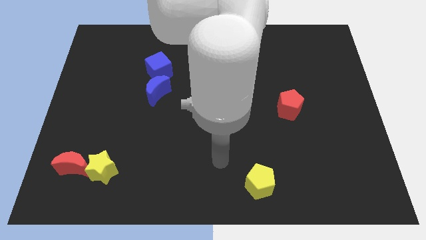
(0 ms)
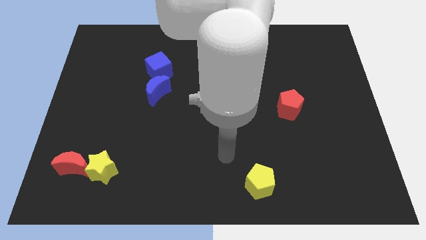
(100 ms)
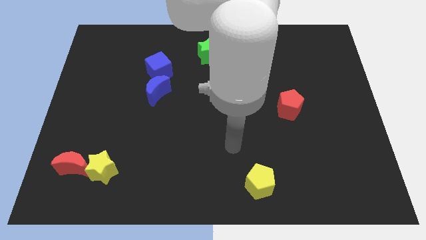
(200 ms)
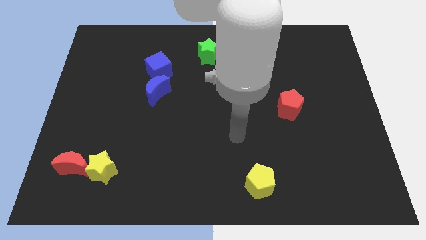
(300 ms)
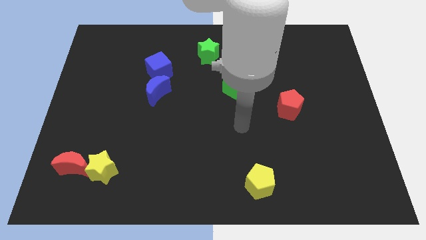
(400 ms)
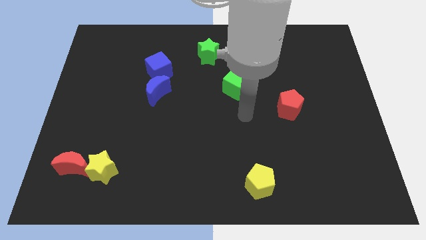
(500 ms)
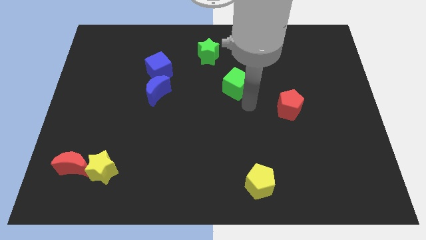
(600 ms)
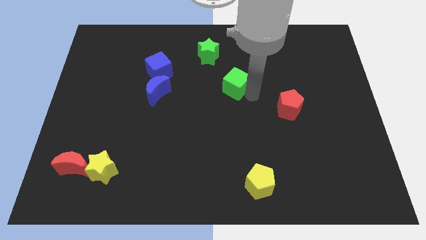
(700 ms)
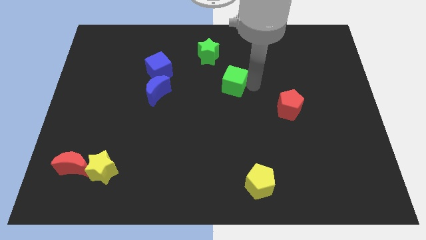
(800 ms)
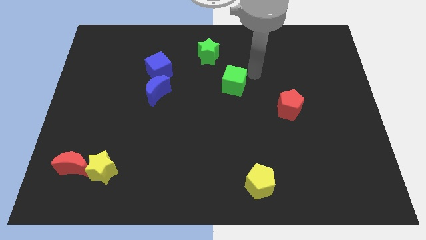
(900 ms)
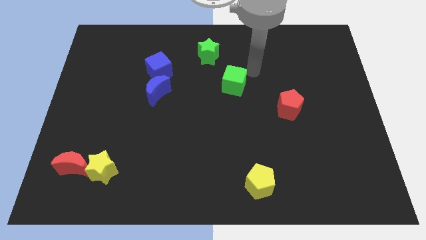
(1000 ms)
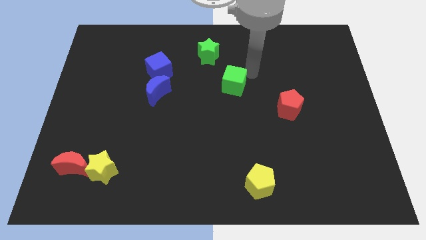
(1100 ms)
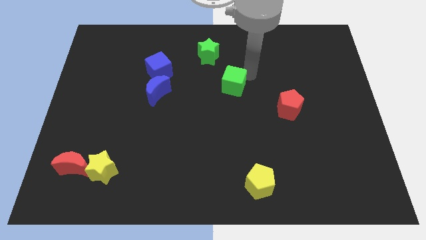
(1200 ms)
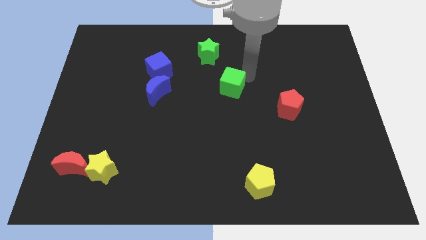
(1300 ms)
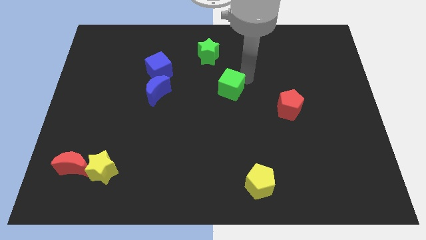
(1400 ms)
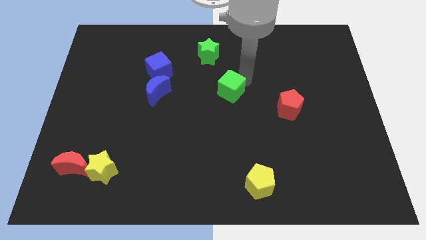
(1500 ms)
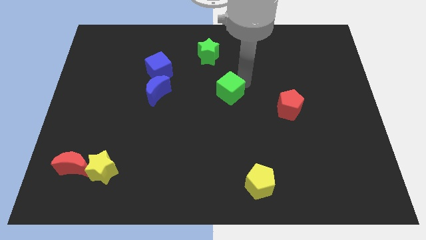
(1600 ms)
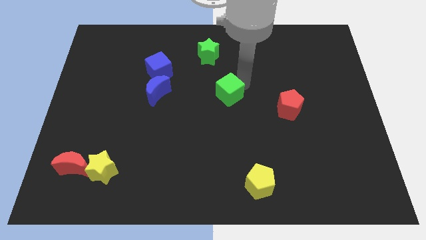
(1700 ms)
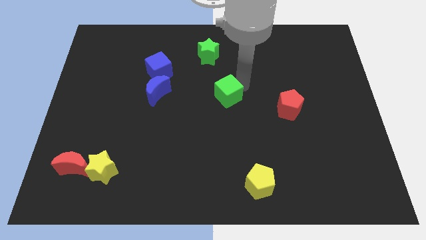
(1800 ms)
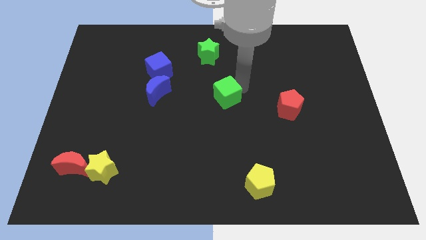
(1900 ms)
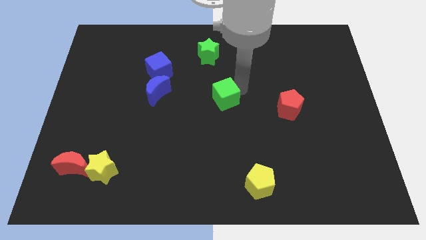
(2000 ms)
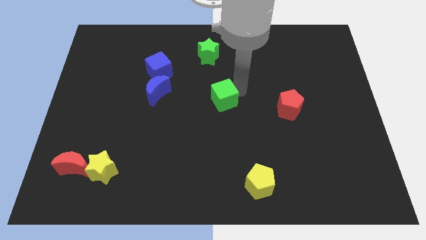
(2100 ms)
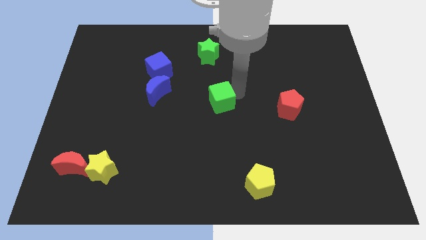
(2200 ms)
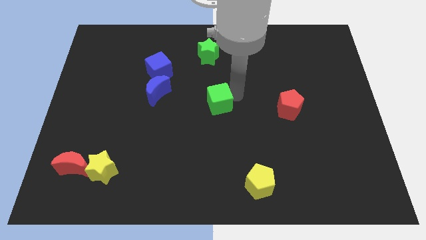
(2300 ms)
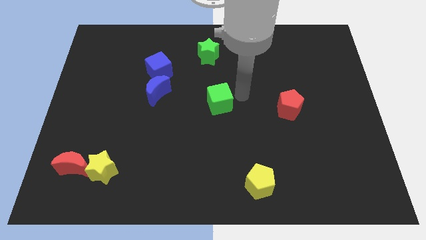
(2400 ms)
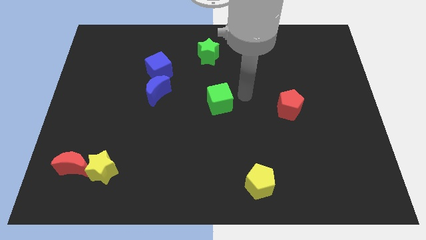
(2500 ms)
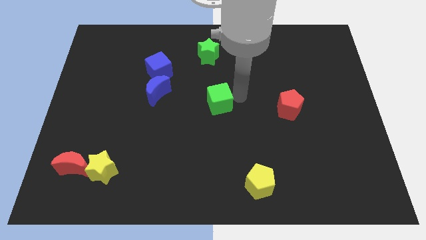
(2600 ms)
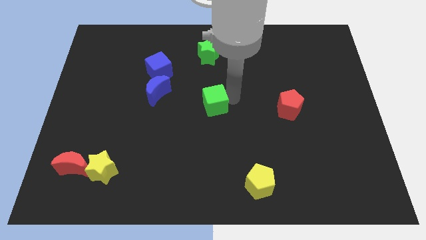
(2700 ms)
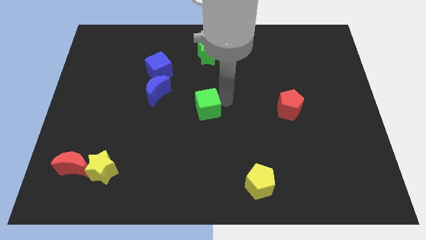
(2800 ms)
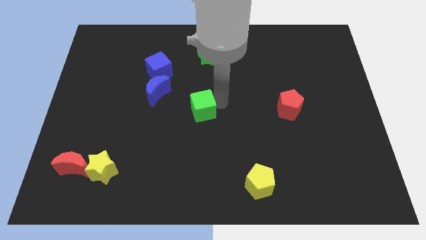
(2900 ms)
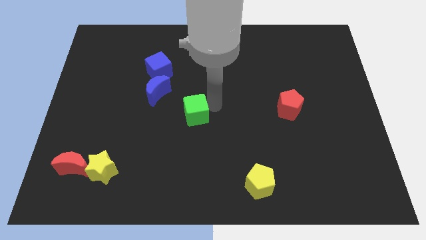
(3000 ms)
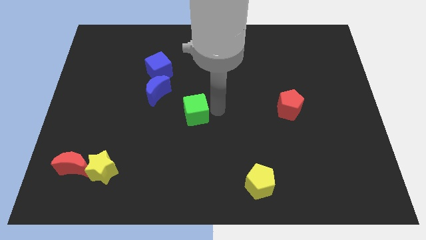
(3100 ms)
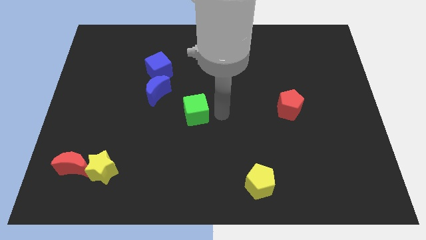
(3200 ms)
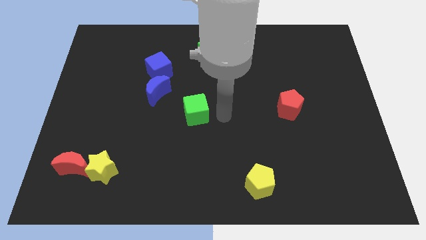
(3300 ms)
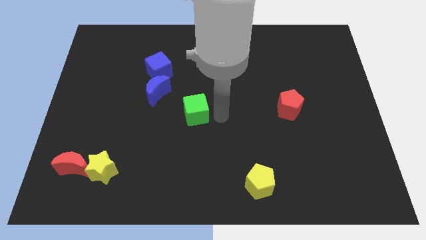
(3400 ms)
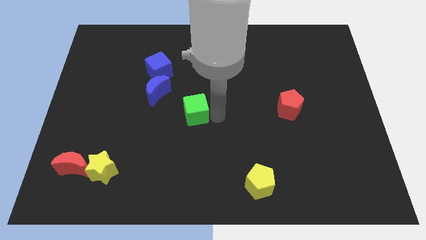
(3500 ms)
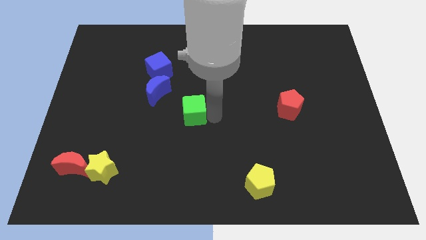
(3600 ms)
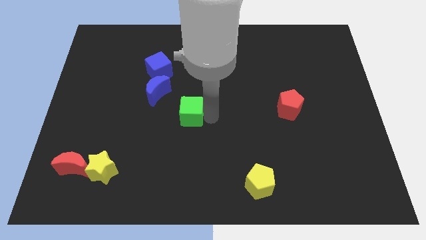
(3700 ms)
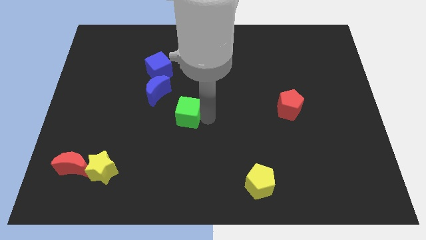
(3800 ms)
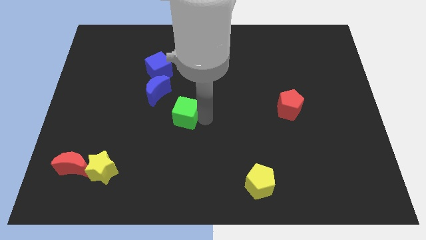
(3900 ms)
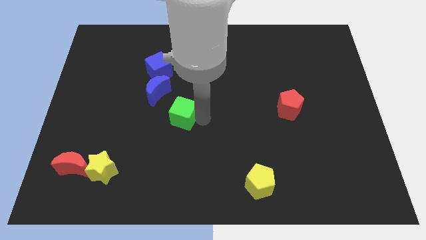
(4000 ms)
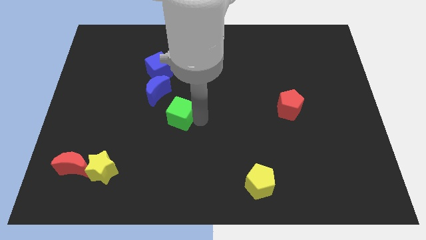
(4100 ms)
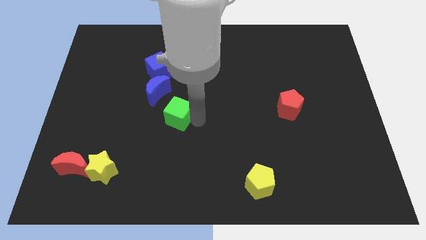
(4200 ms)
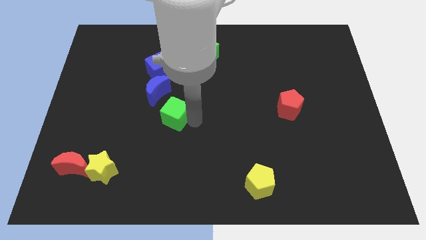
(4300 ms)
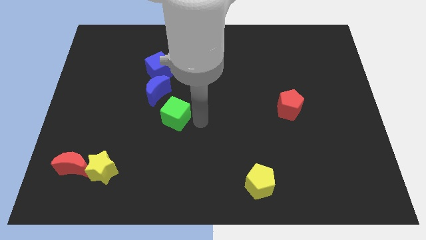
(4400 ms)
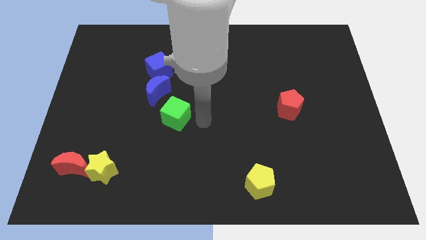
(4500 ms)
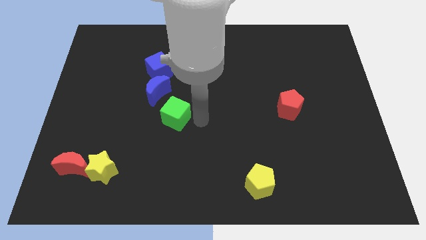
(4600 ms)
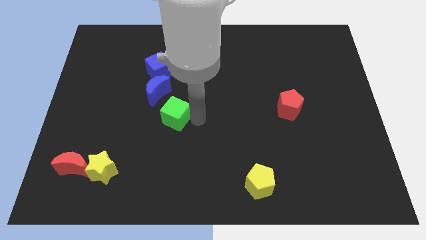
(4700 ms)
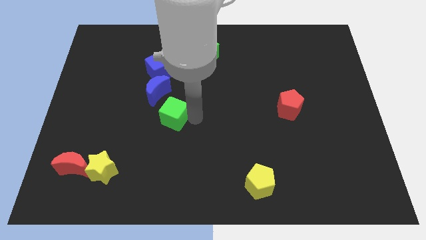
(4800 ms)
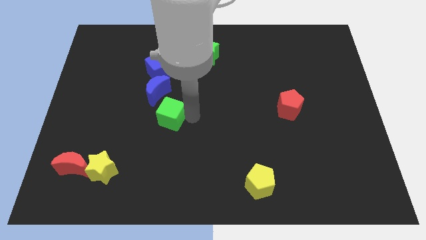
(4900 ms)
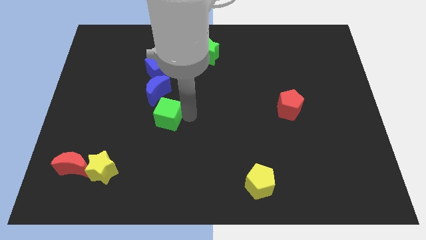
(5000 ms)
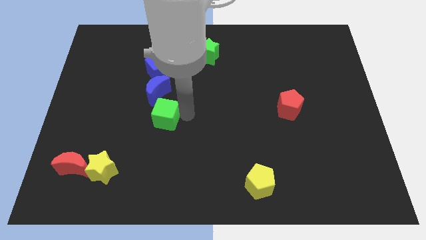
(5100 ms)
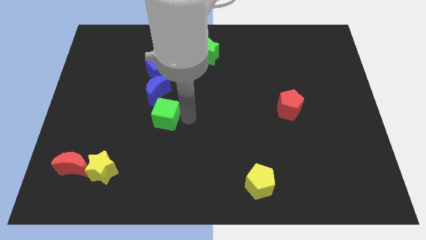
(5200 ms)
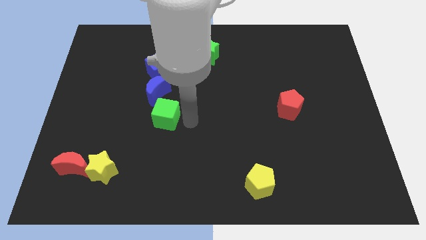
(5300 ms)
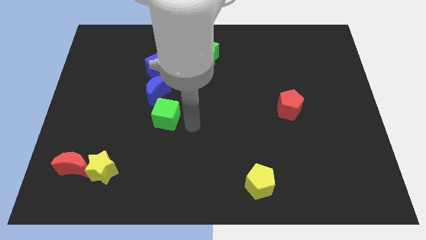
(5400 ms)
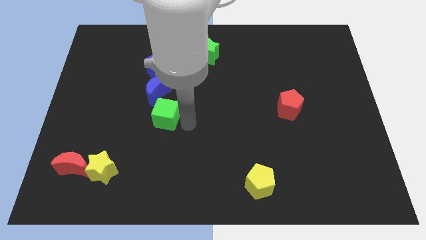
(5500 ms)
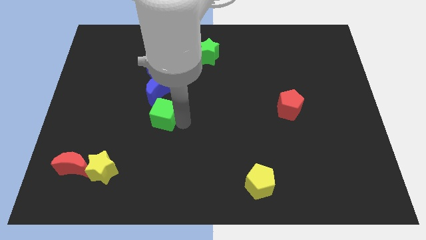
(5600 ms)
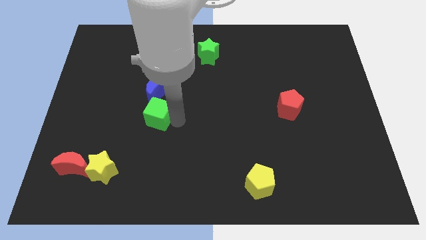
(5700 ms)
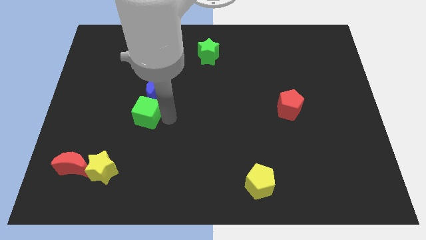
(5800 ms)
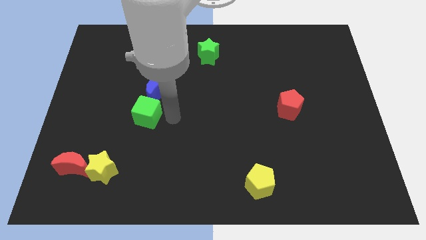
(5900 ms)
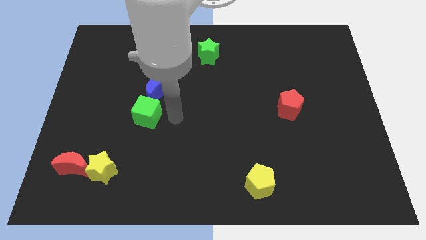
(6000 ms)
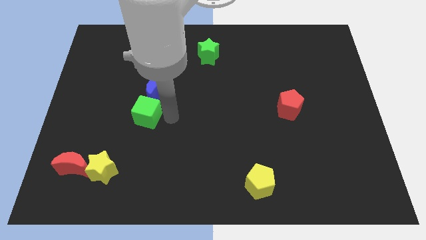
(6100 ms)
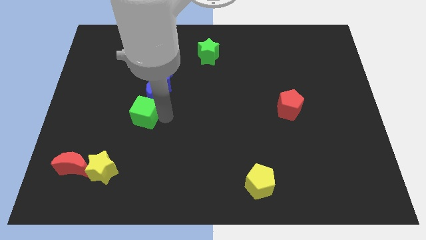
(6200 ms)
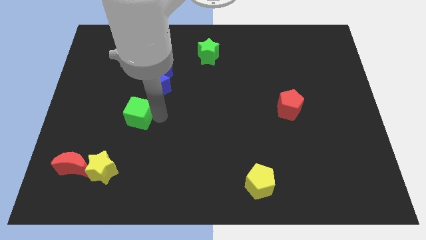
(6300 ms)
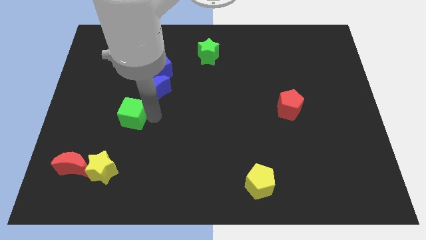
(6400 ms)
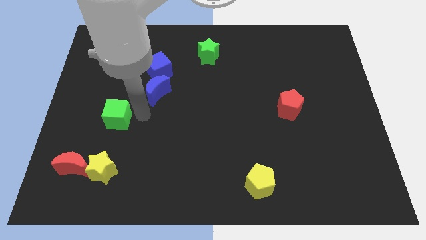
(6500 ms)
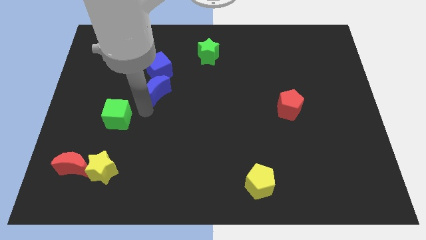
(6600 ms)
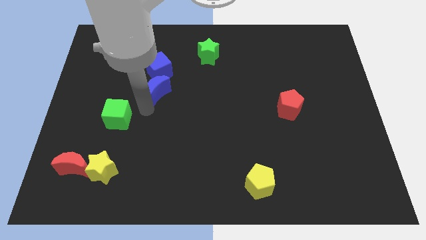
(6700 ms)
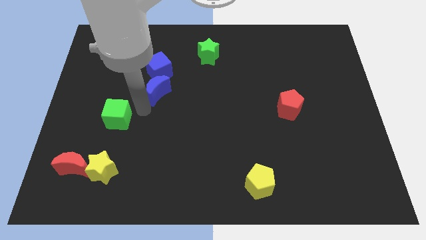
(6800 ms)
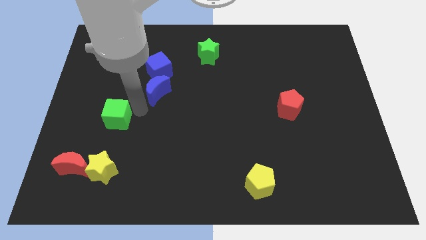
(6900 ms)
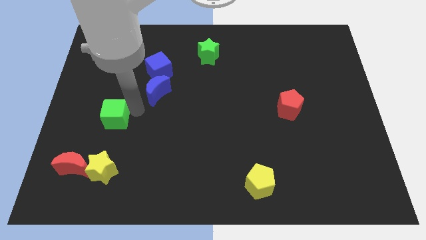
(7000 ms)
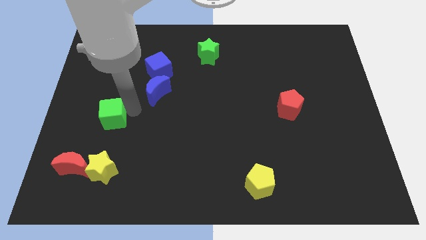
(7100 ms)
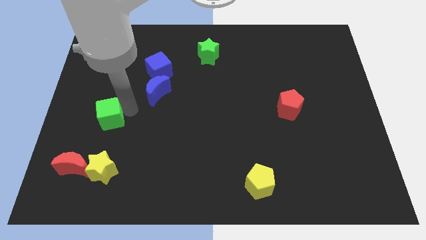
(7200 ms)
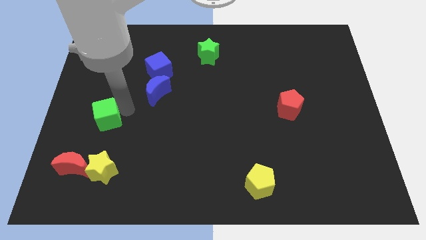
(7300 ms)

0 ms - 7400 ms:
put the green cube to the top side of the red moon

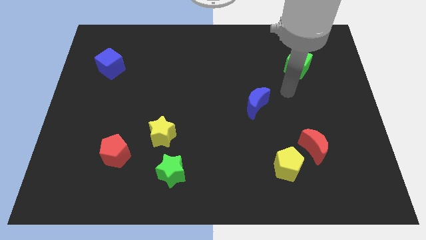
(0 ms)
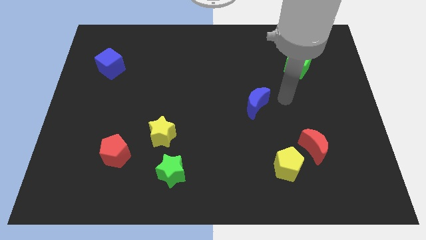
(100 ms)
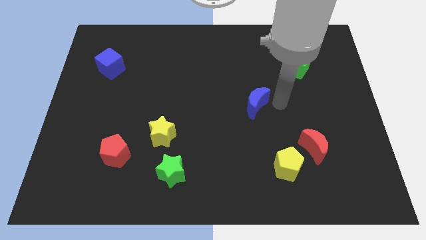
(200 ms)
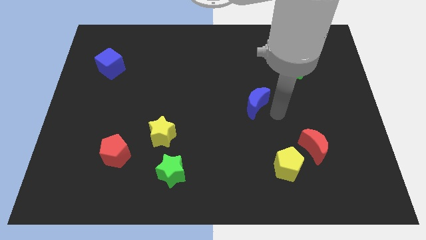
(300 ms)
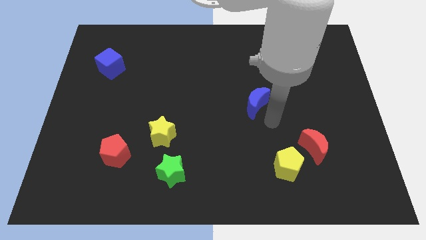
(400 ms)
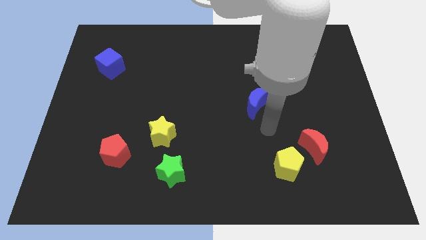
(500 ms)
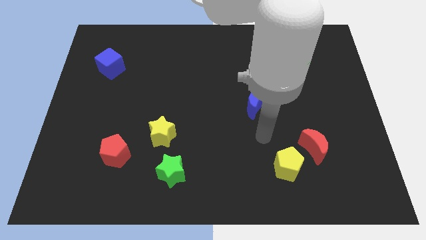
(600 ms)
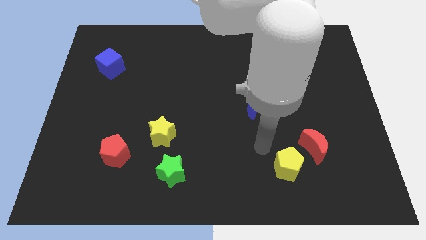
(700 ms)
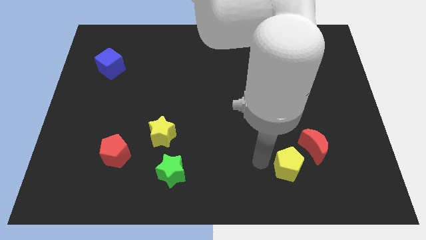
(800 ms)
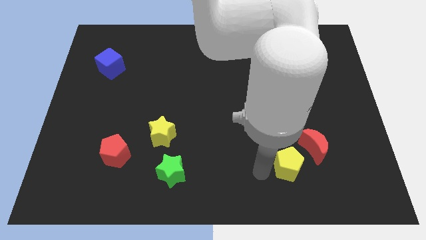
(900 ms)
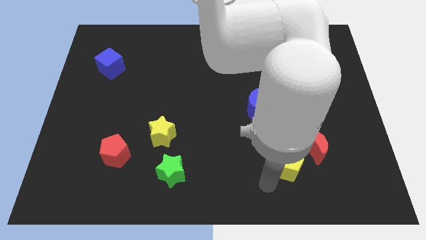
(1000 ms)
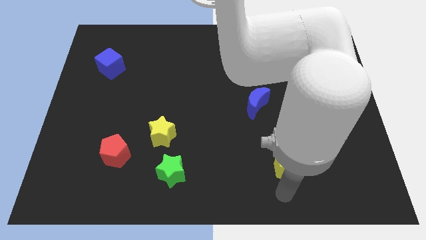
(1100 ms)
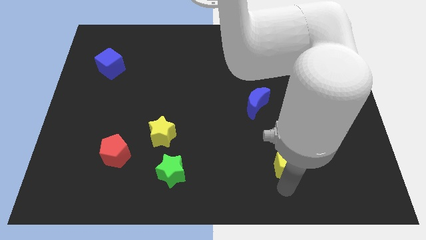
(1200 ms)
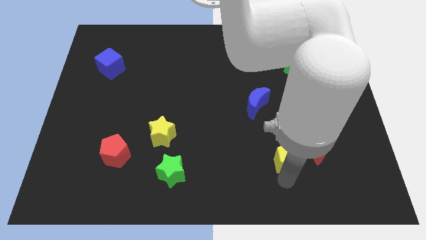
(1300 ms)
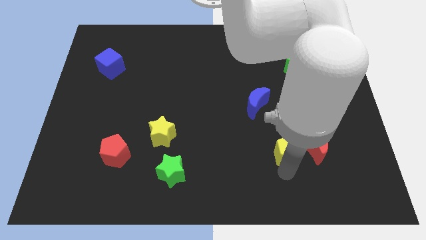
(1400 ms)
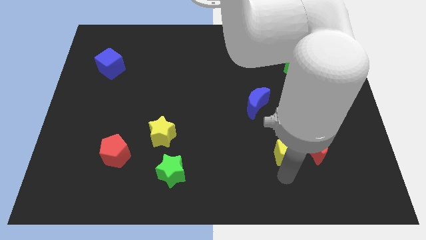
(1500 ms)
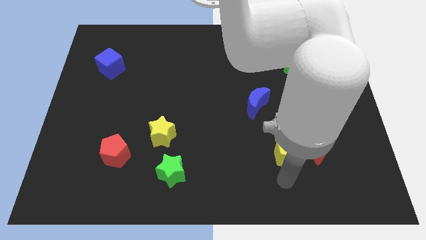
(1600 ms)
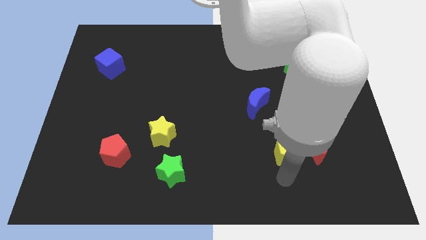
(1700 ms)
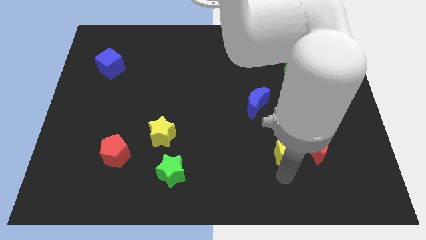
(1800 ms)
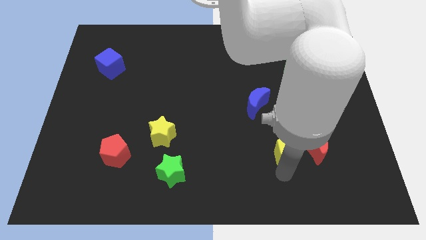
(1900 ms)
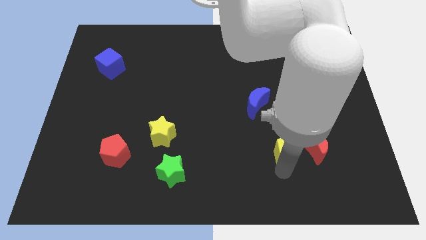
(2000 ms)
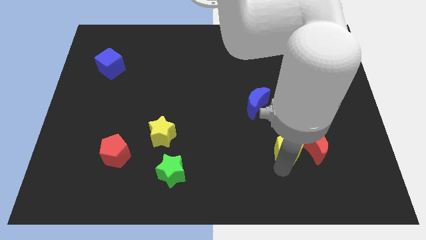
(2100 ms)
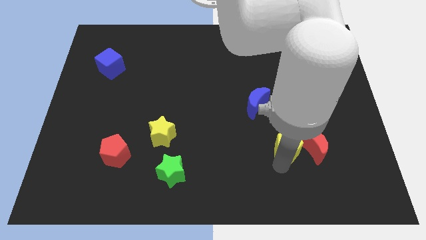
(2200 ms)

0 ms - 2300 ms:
move the yellow pentagon diagonally up and to the left of the red moon
